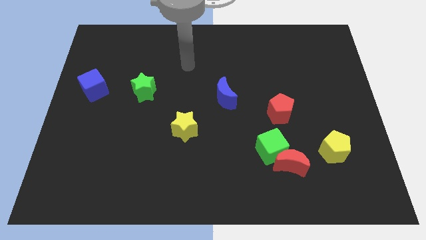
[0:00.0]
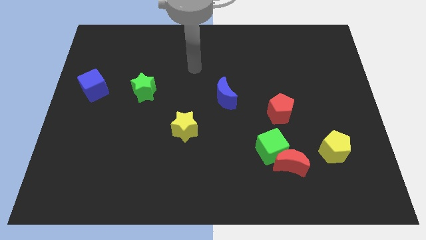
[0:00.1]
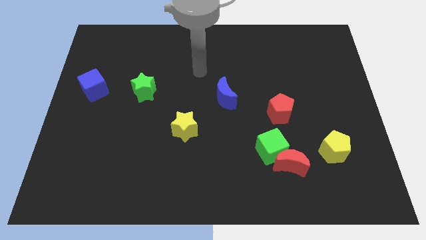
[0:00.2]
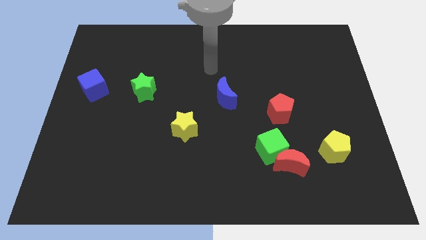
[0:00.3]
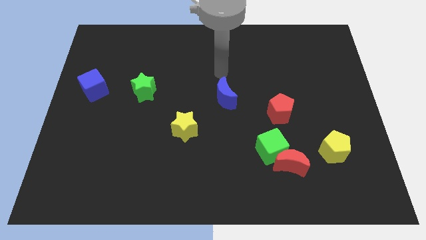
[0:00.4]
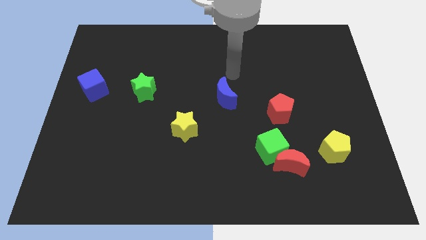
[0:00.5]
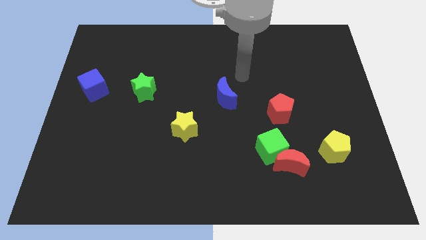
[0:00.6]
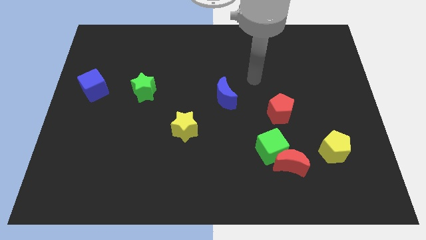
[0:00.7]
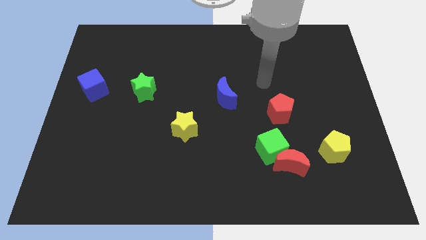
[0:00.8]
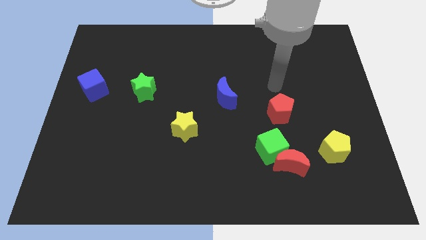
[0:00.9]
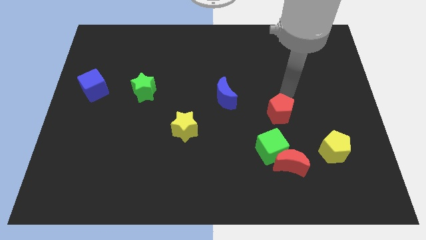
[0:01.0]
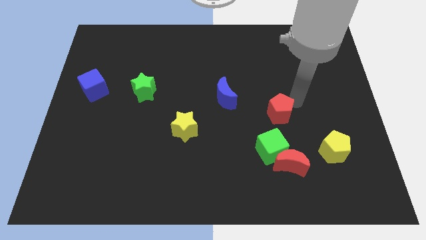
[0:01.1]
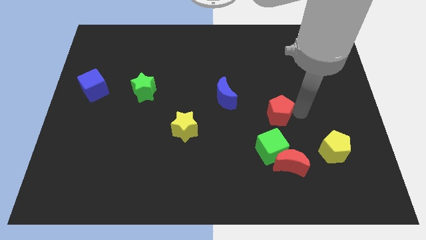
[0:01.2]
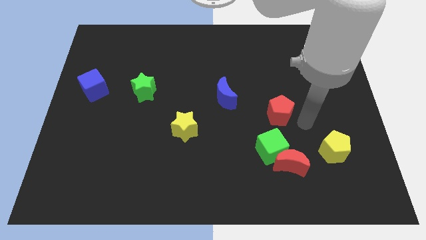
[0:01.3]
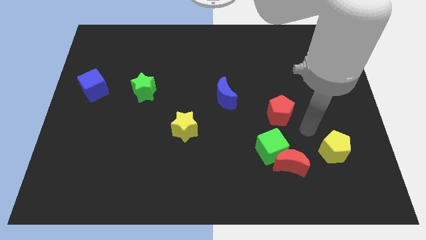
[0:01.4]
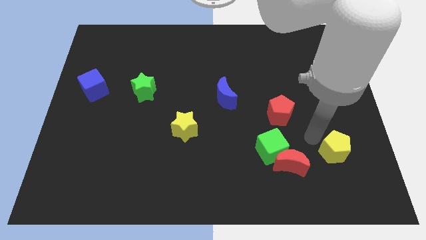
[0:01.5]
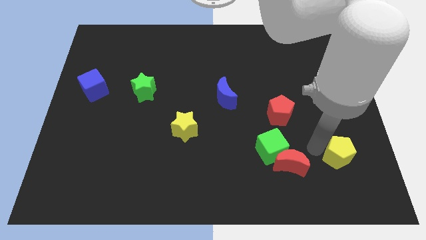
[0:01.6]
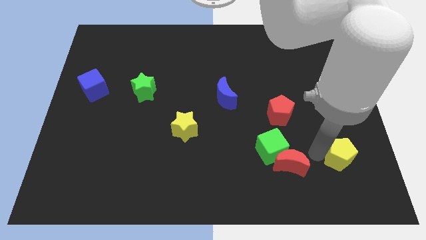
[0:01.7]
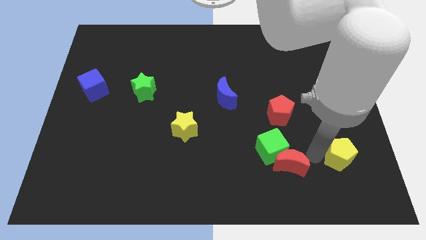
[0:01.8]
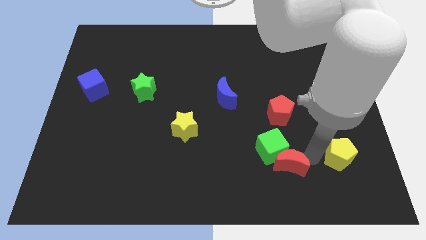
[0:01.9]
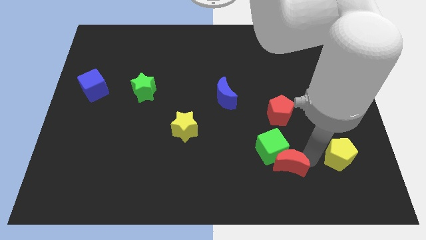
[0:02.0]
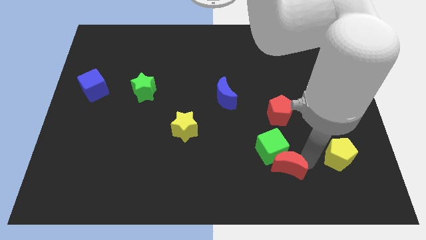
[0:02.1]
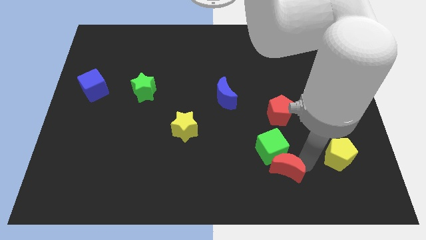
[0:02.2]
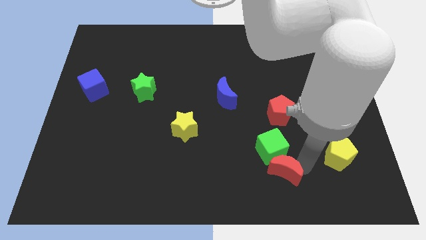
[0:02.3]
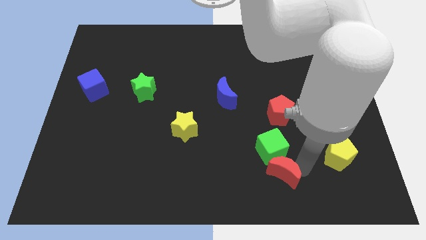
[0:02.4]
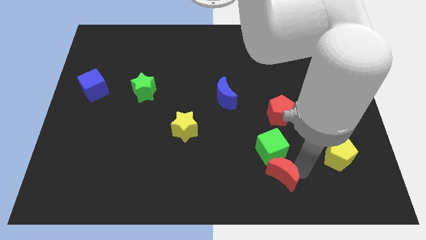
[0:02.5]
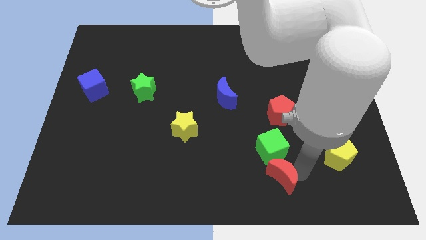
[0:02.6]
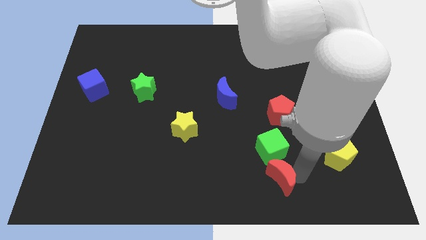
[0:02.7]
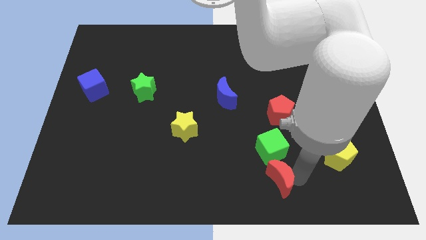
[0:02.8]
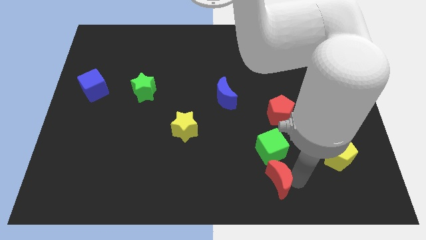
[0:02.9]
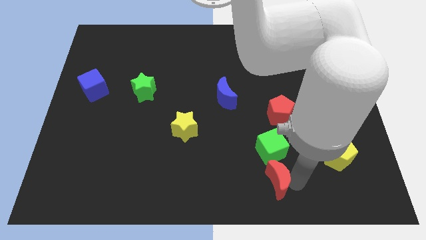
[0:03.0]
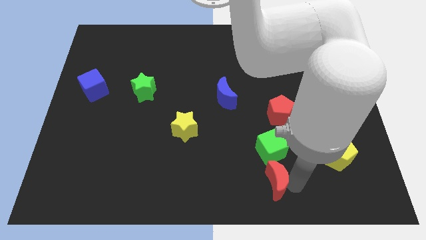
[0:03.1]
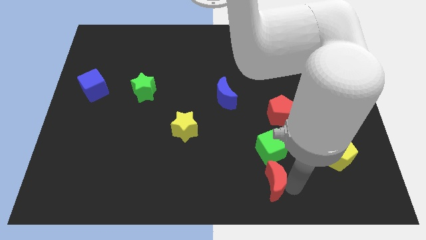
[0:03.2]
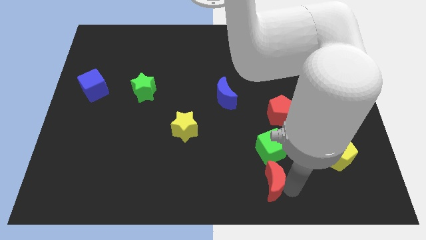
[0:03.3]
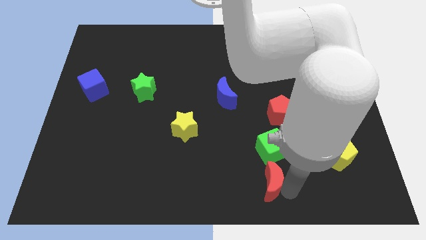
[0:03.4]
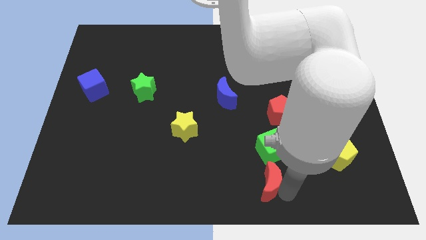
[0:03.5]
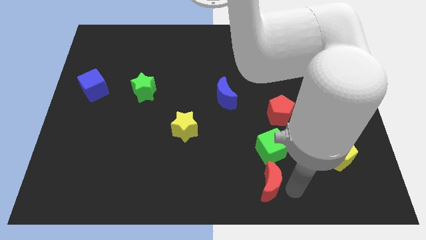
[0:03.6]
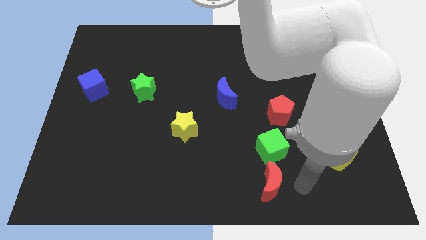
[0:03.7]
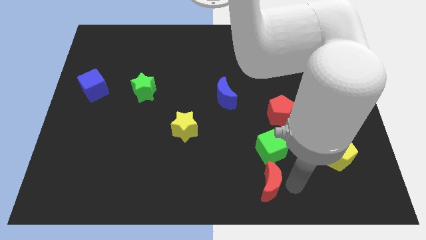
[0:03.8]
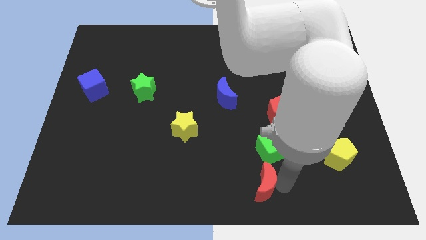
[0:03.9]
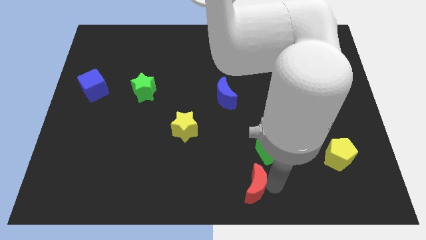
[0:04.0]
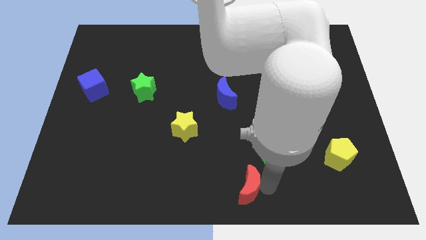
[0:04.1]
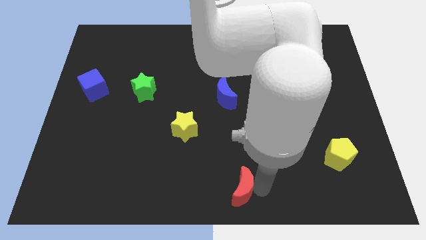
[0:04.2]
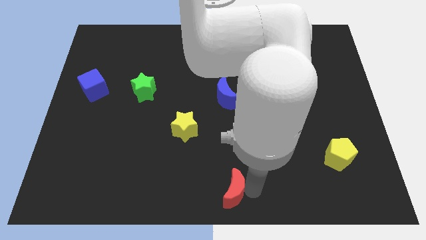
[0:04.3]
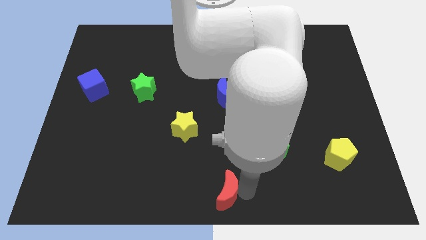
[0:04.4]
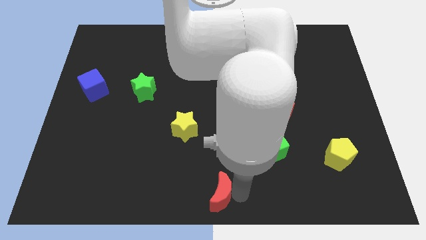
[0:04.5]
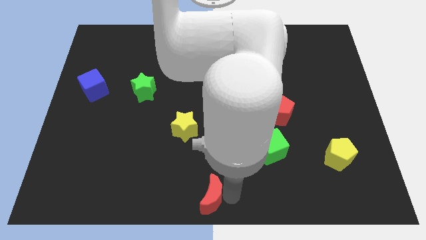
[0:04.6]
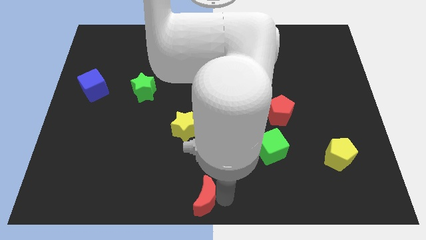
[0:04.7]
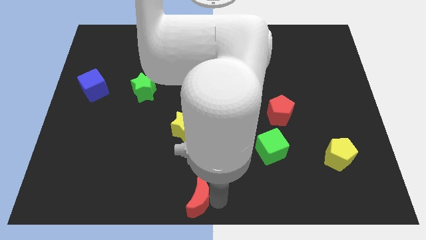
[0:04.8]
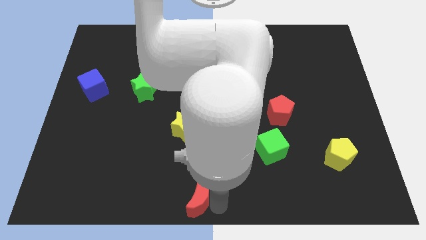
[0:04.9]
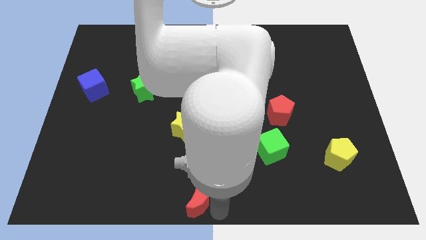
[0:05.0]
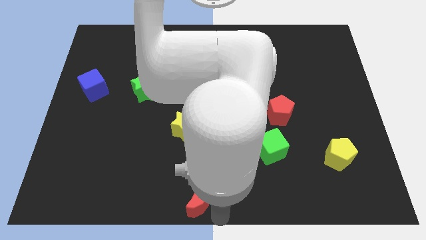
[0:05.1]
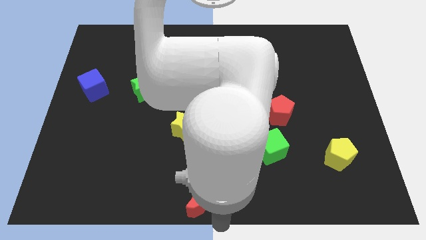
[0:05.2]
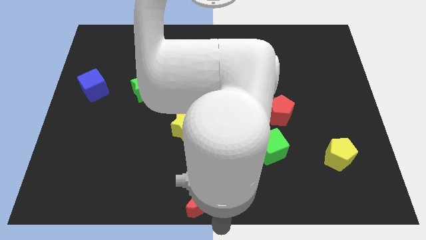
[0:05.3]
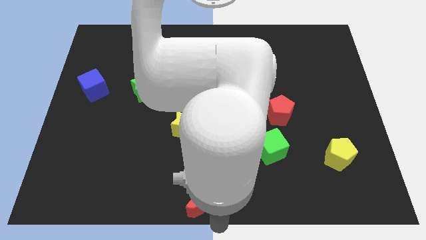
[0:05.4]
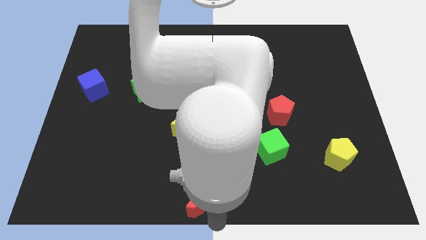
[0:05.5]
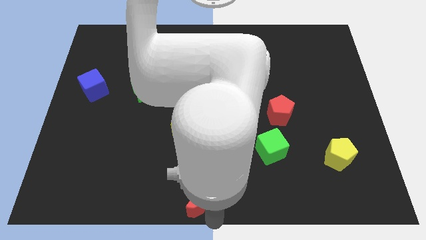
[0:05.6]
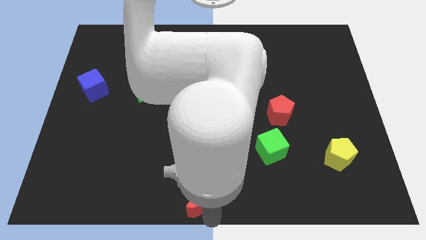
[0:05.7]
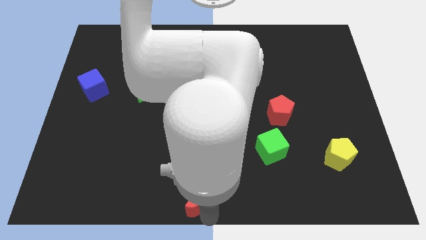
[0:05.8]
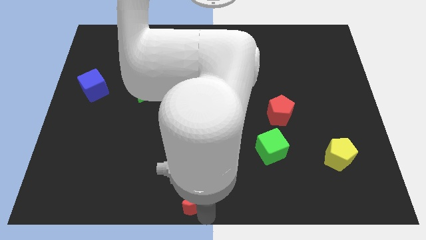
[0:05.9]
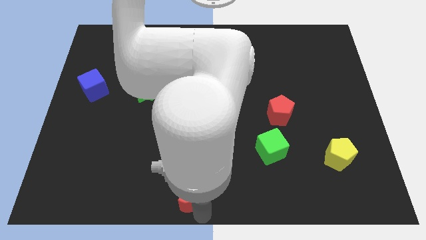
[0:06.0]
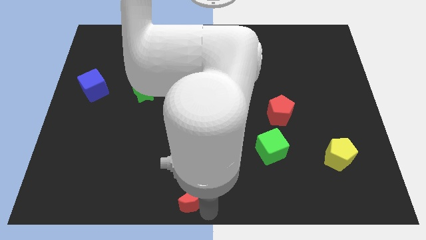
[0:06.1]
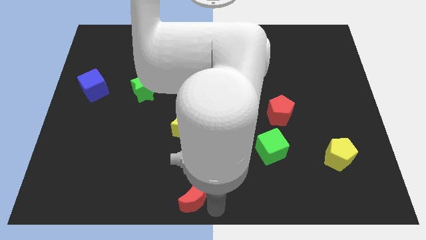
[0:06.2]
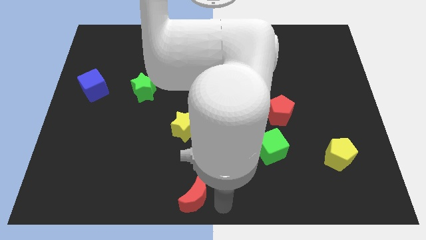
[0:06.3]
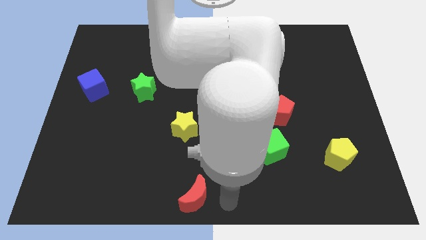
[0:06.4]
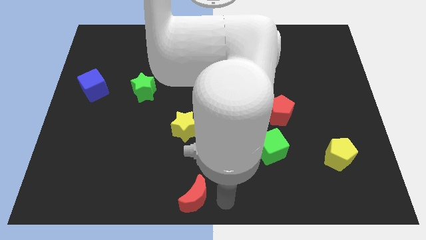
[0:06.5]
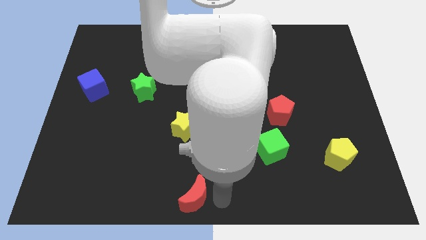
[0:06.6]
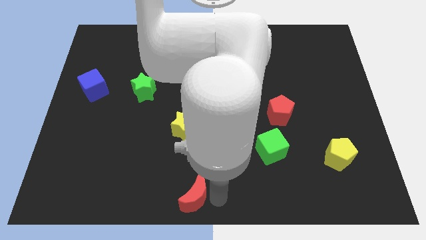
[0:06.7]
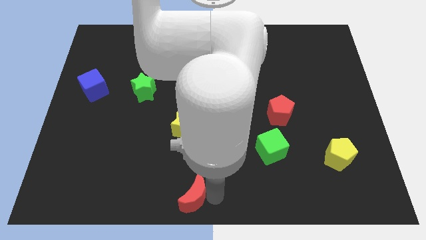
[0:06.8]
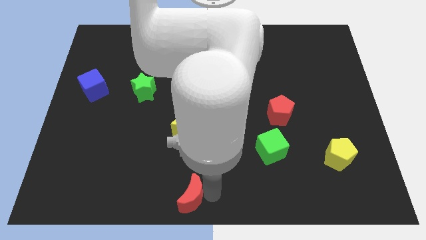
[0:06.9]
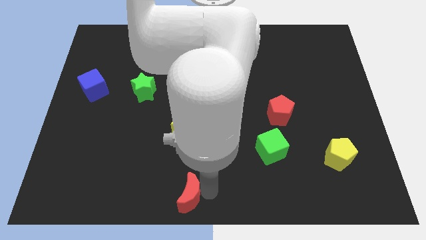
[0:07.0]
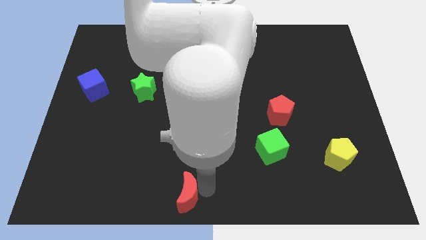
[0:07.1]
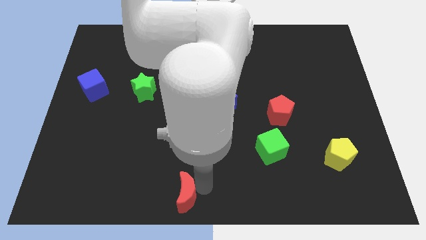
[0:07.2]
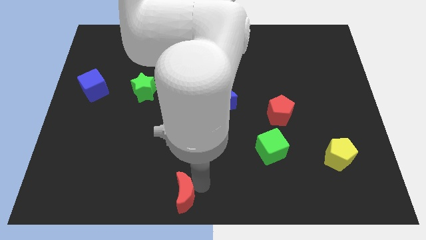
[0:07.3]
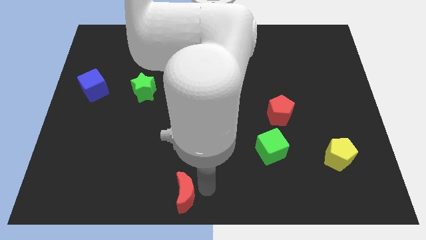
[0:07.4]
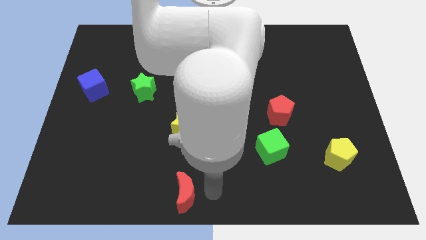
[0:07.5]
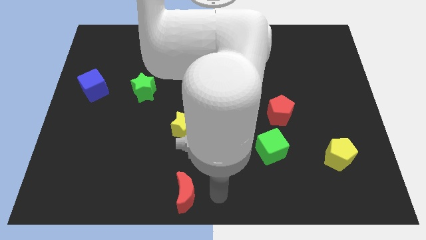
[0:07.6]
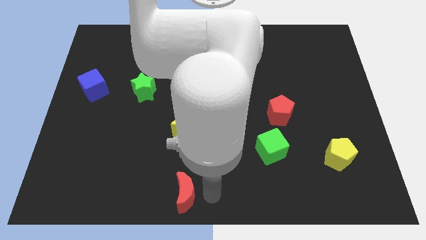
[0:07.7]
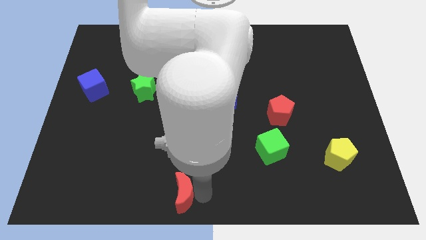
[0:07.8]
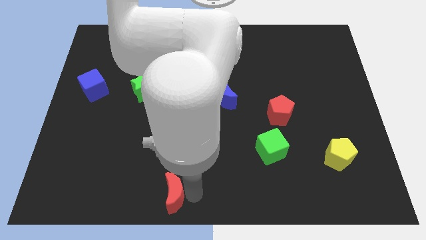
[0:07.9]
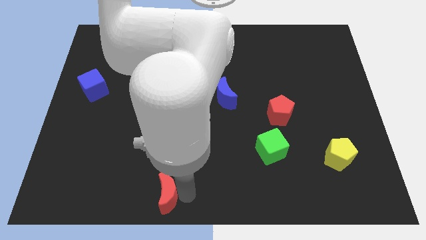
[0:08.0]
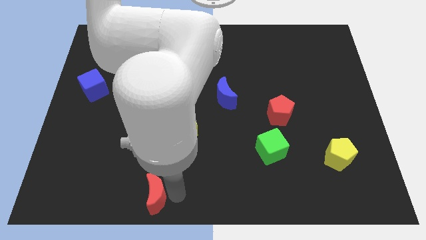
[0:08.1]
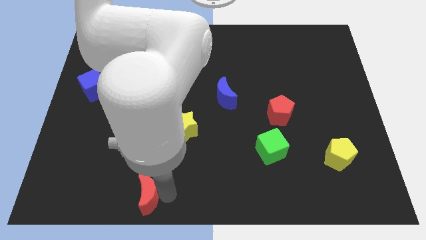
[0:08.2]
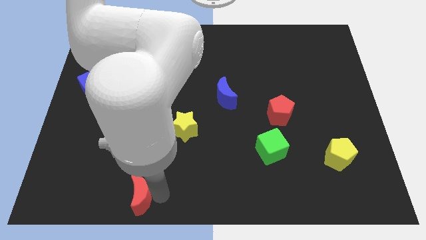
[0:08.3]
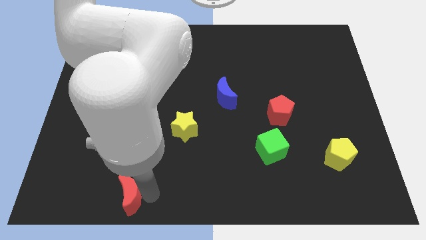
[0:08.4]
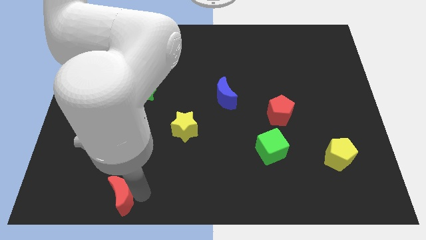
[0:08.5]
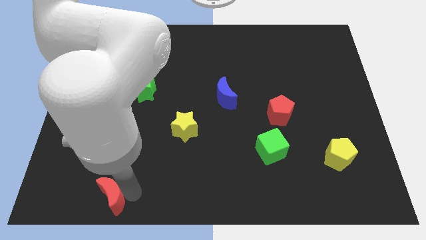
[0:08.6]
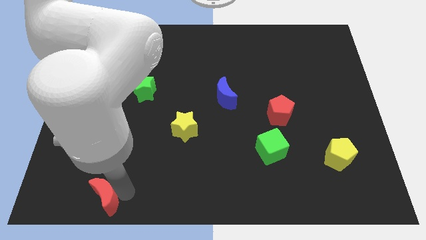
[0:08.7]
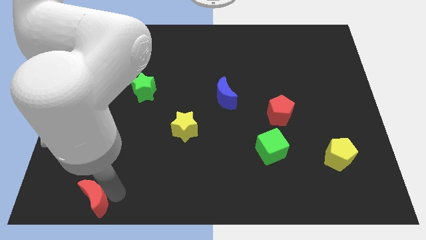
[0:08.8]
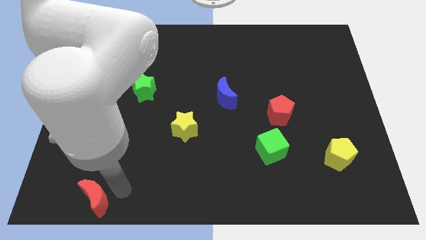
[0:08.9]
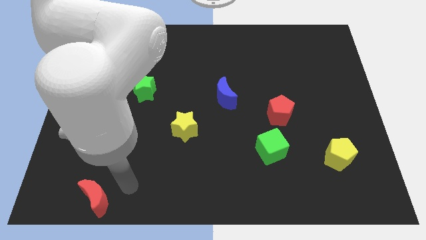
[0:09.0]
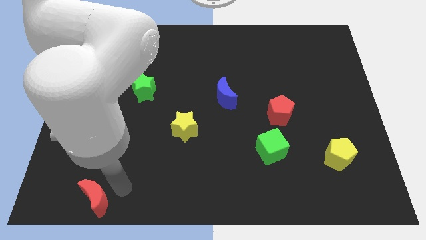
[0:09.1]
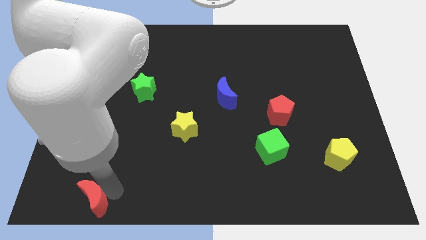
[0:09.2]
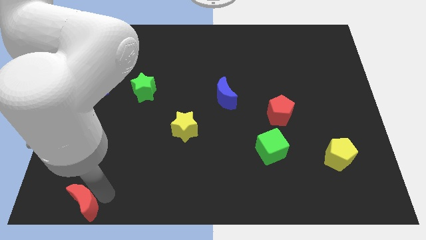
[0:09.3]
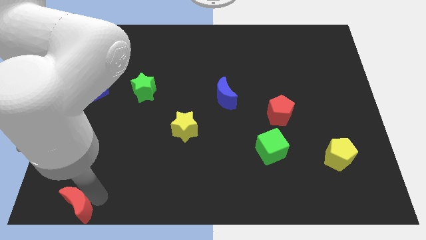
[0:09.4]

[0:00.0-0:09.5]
put the red moon to the bottom left
